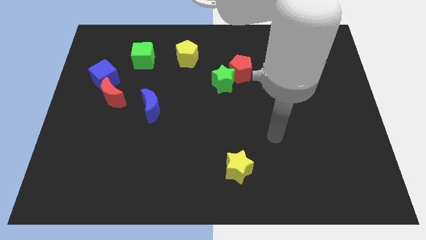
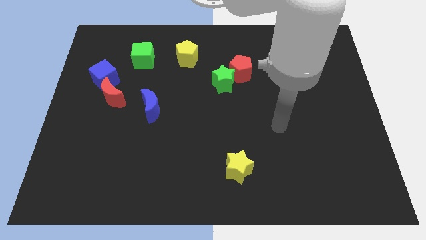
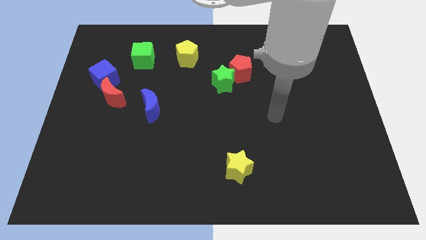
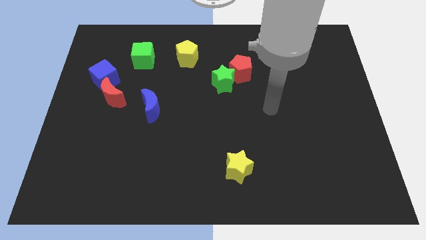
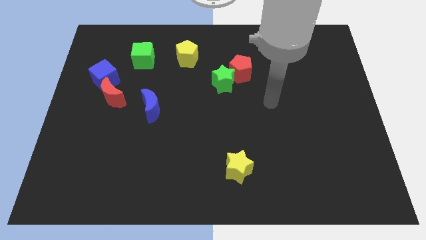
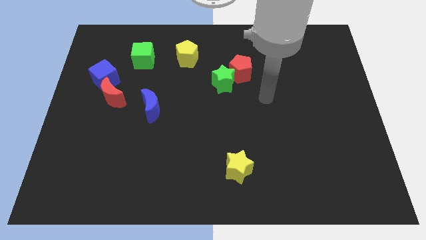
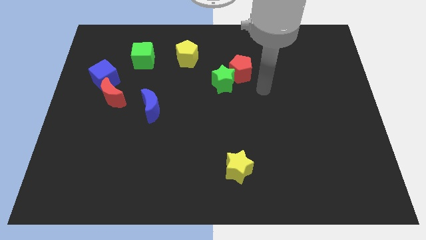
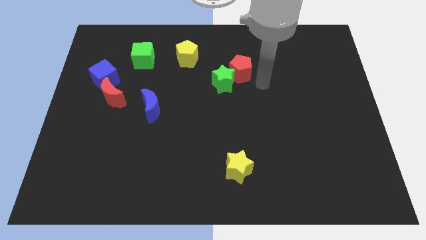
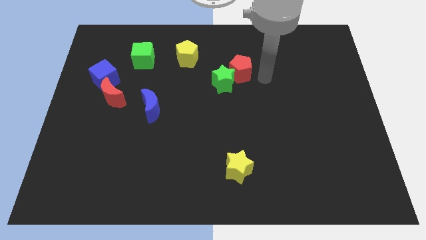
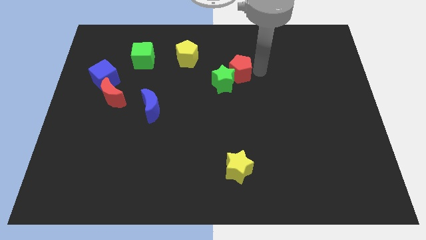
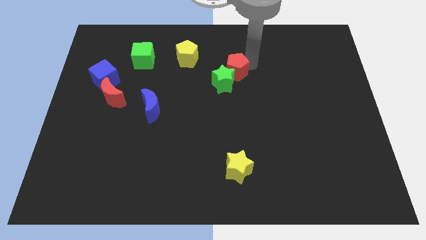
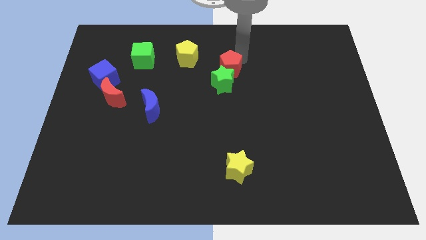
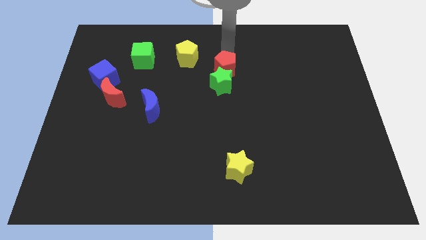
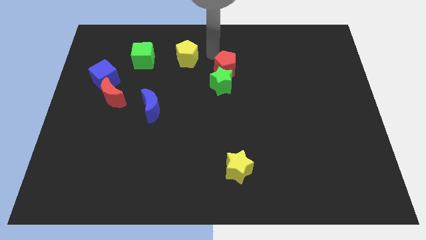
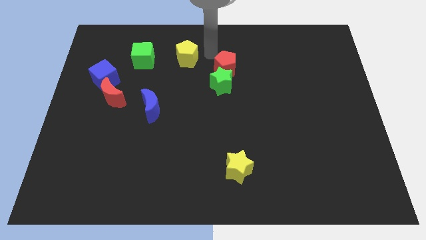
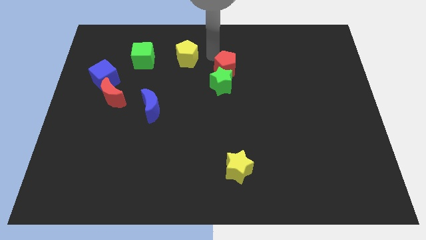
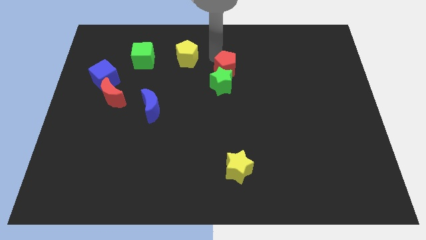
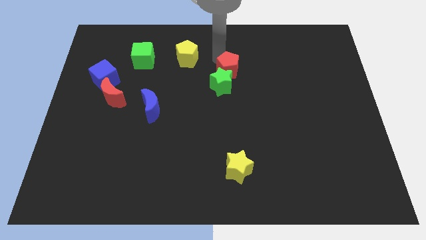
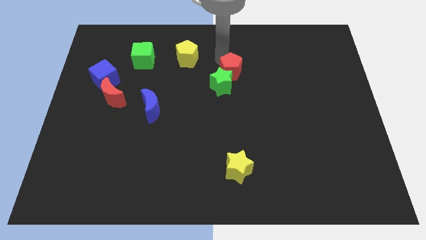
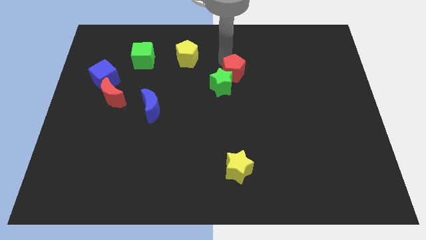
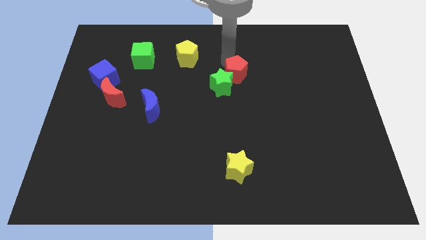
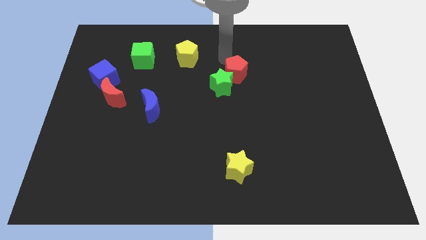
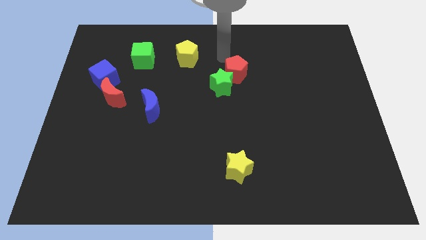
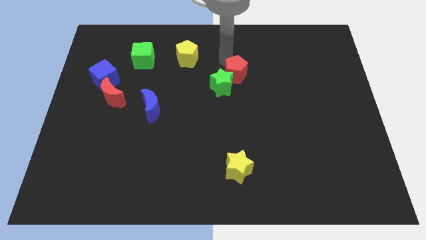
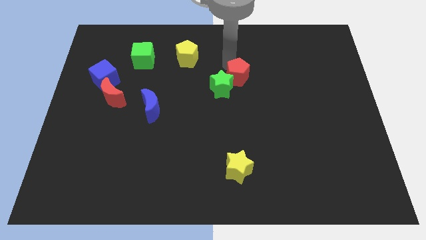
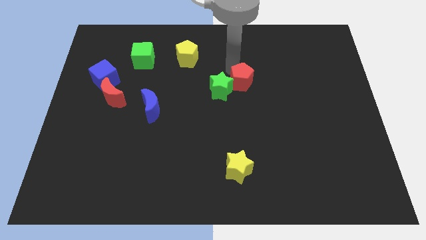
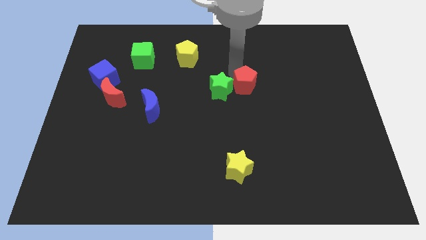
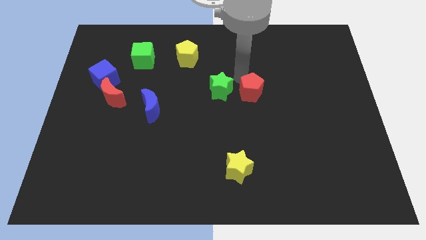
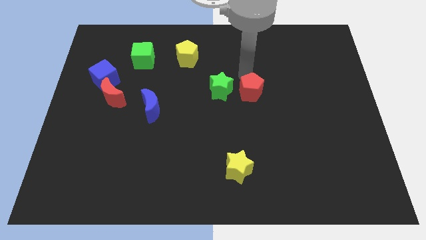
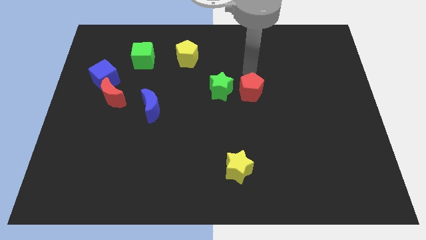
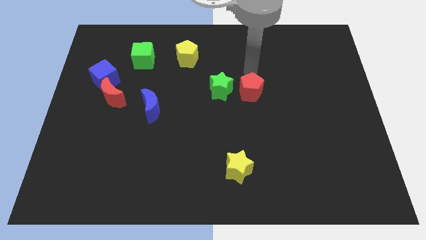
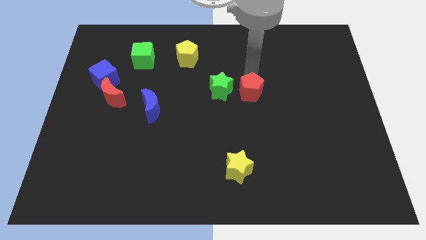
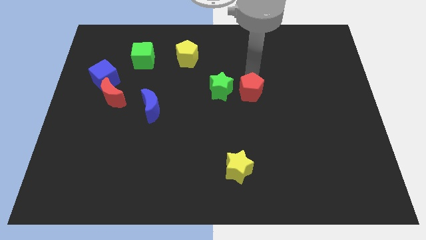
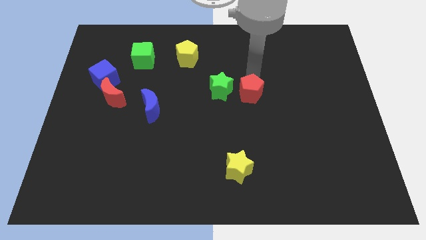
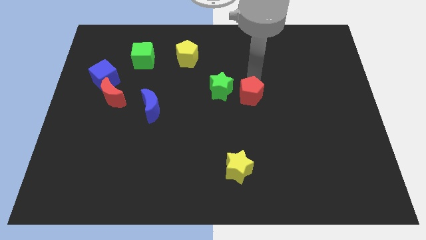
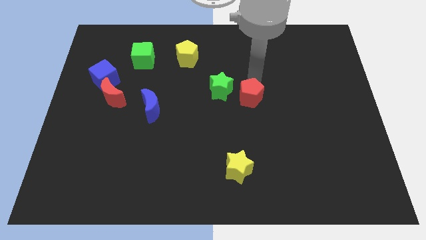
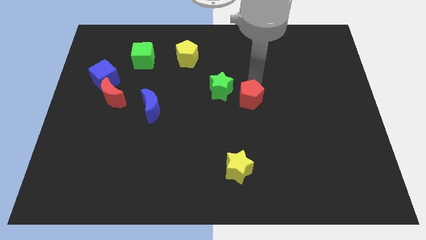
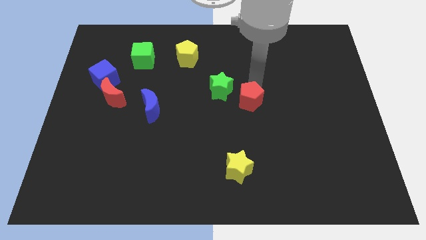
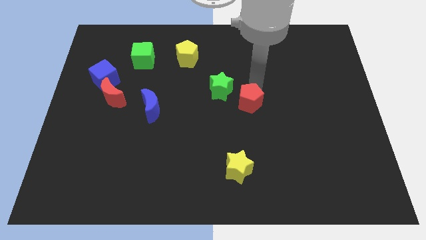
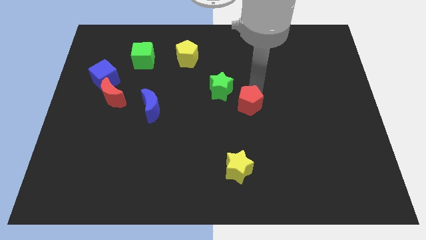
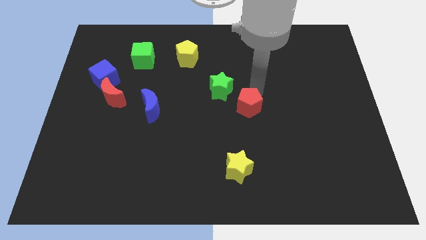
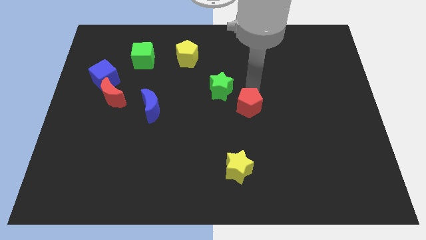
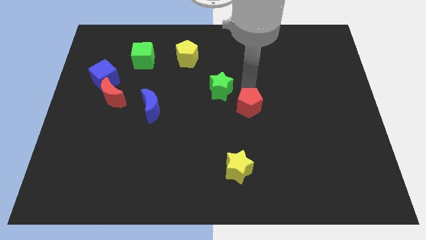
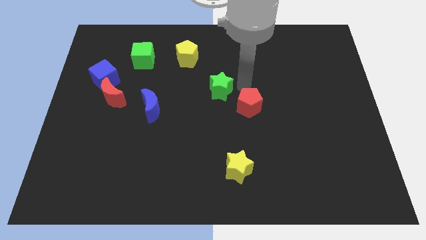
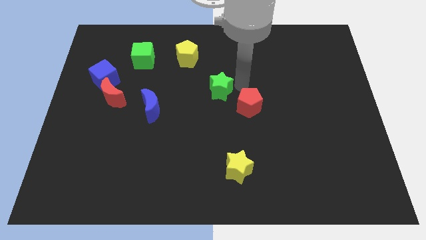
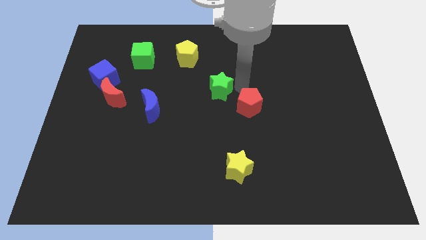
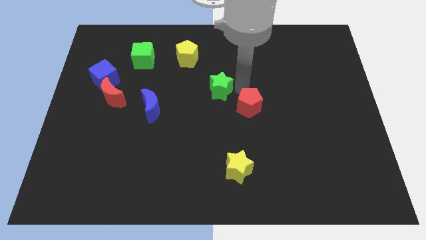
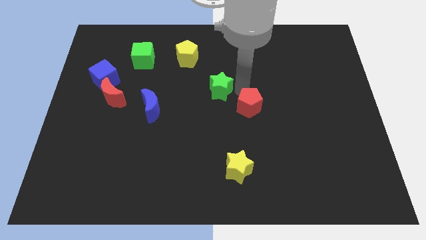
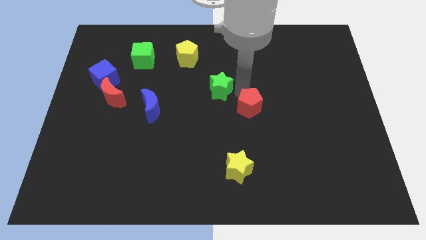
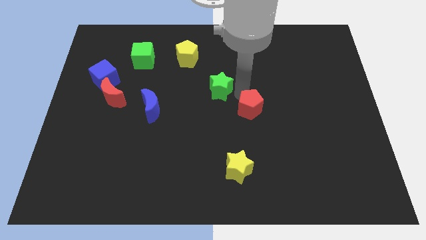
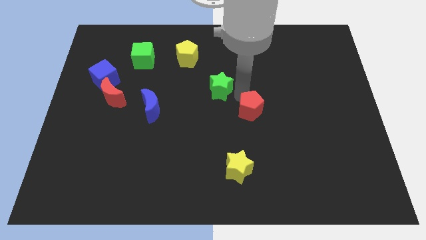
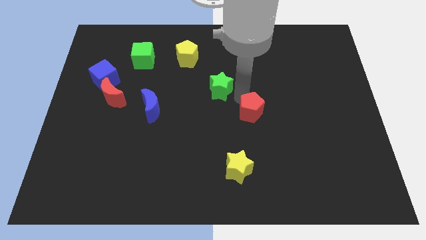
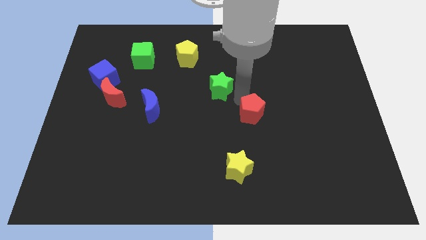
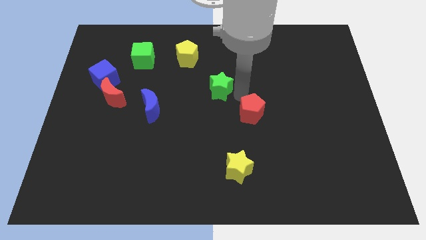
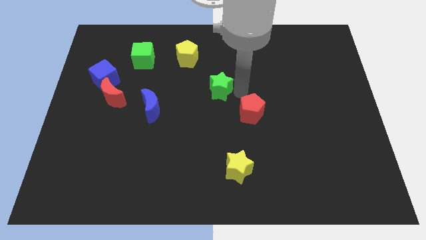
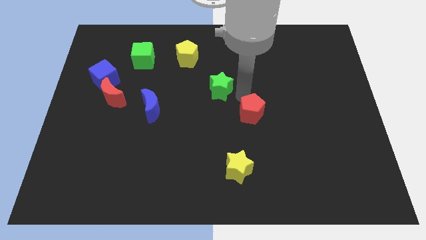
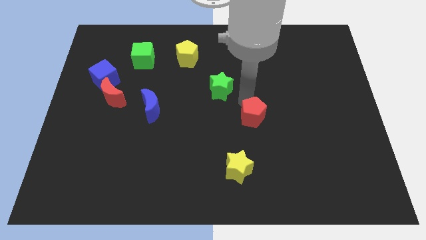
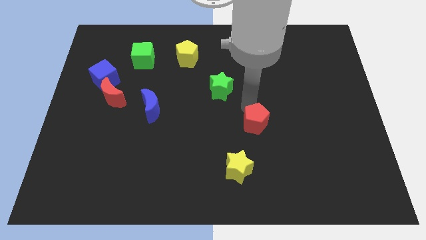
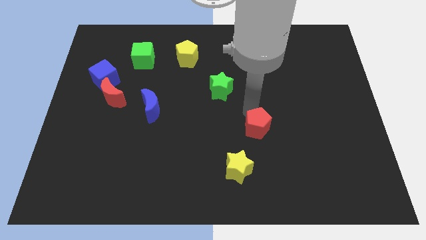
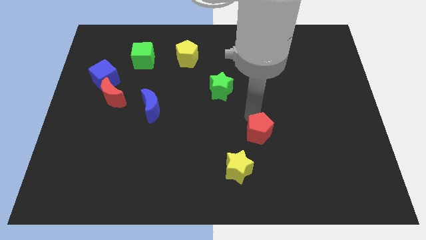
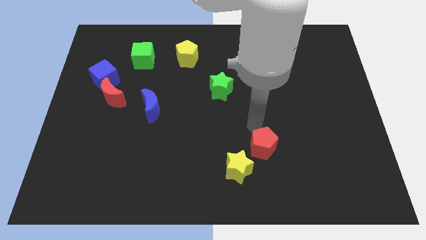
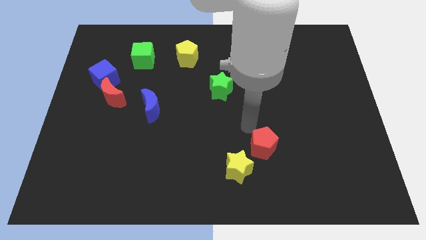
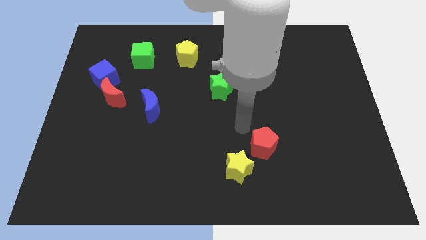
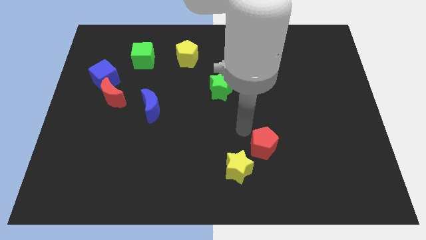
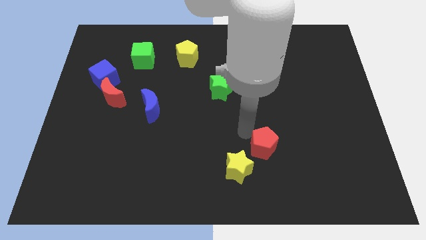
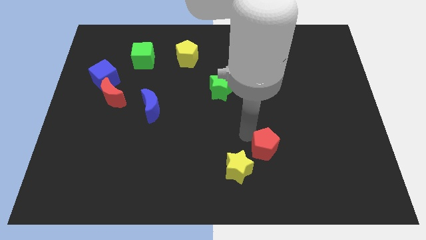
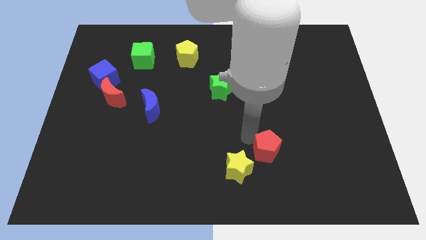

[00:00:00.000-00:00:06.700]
push the red pentagon just right of the yellow star

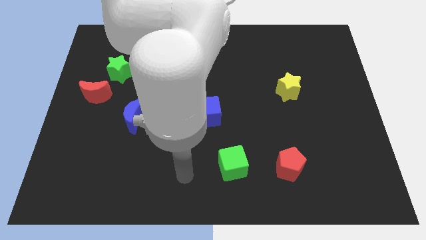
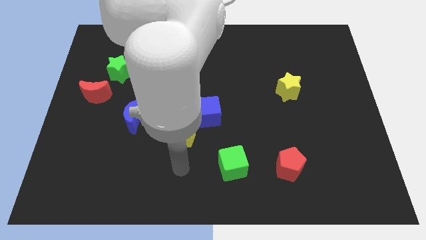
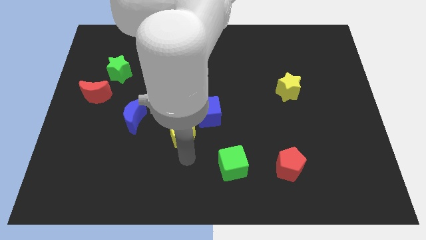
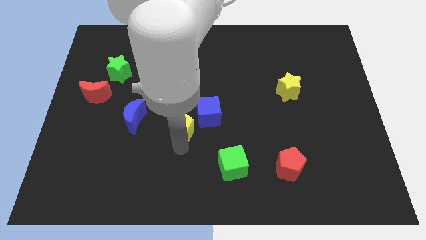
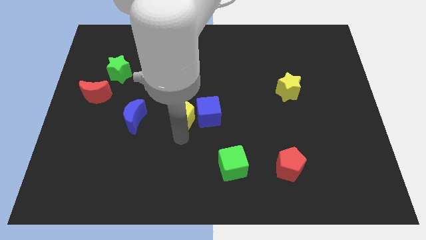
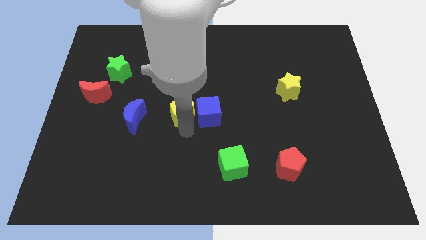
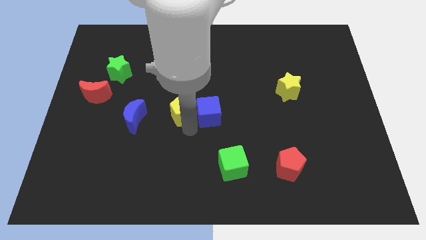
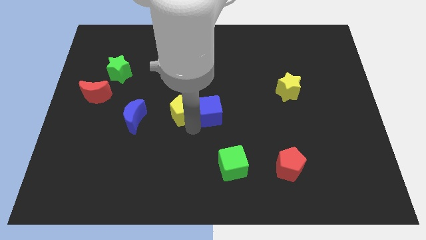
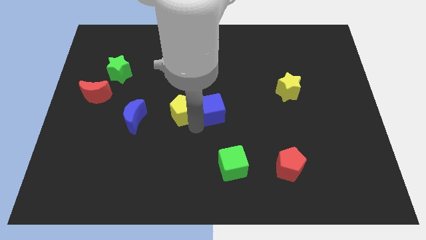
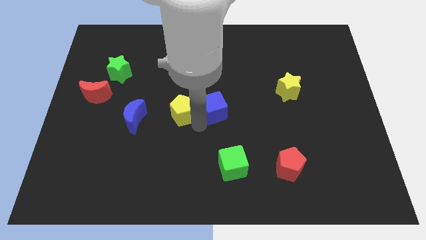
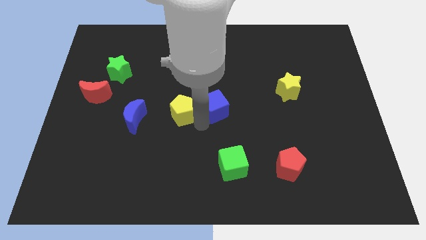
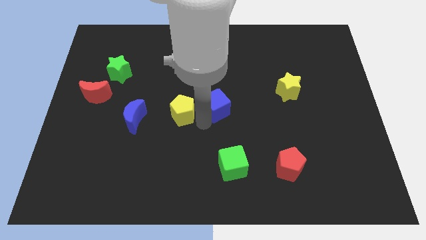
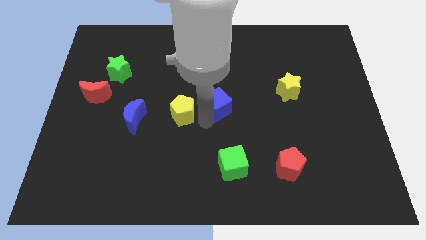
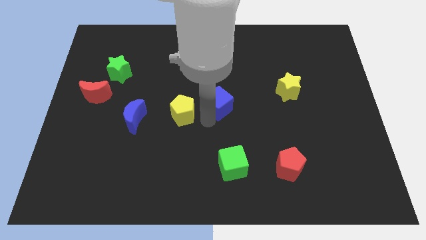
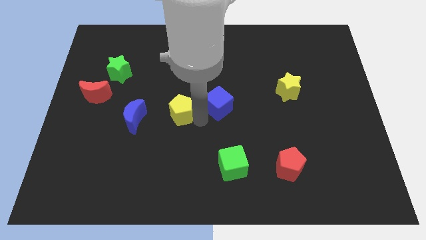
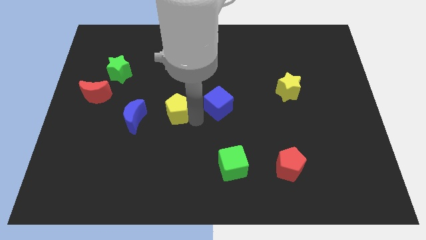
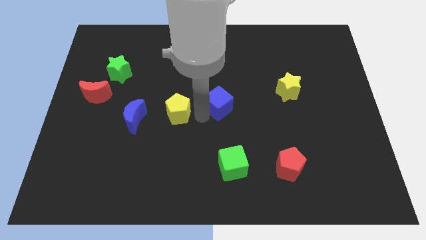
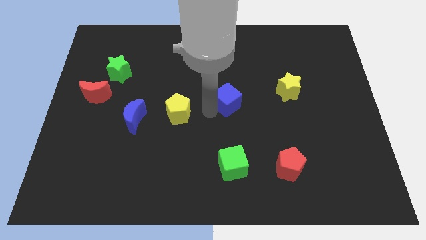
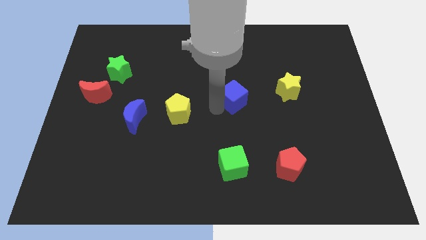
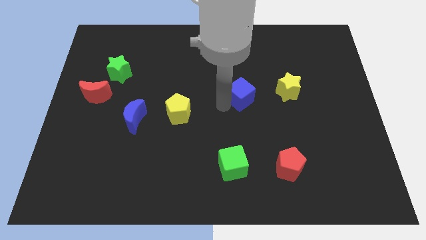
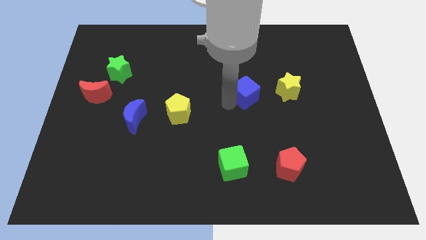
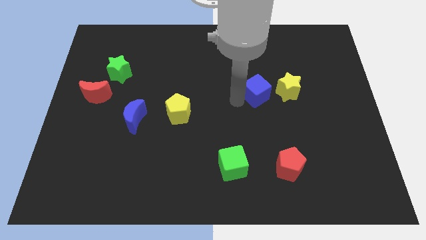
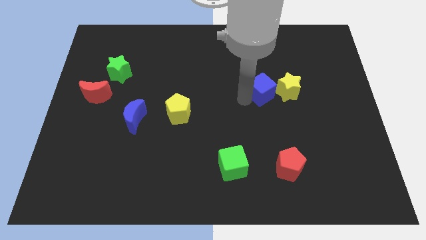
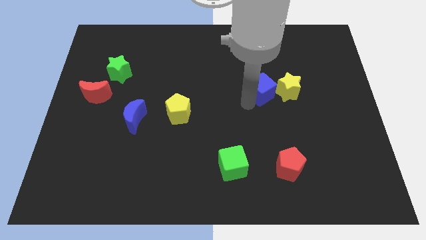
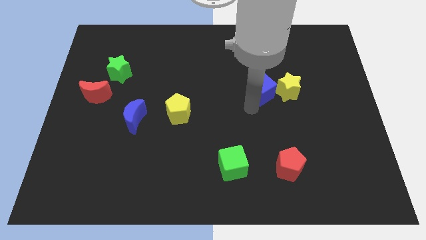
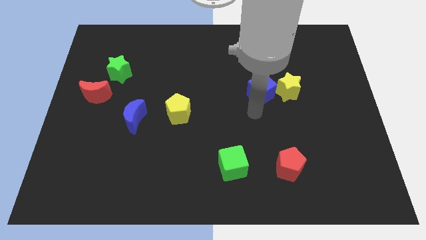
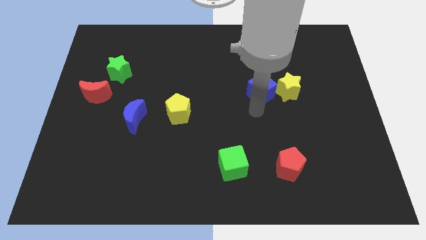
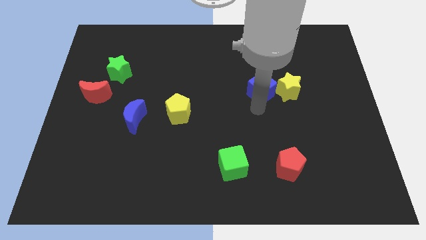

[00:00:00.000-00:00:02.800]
slide the blue cube to the top left side of the yellow star
